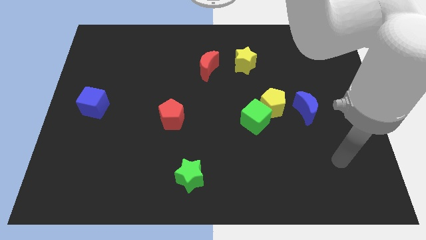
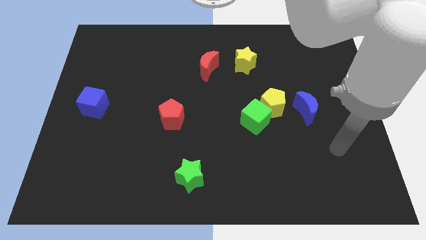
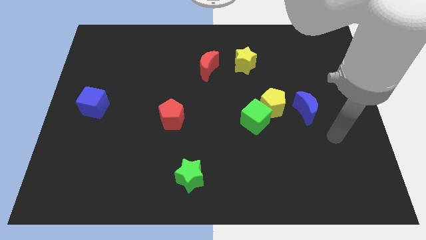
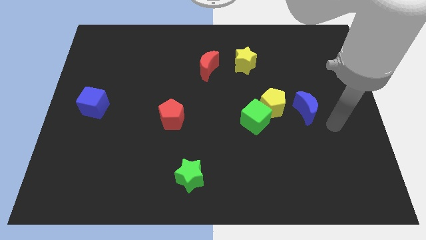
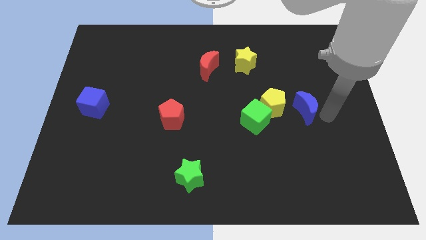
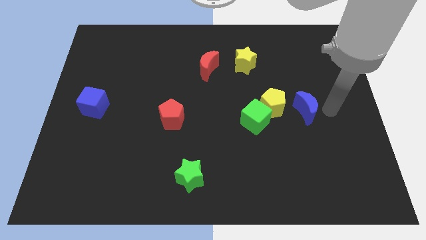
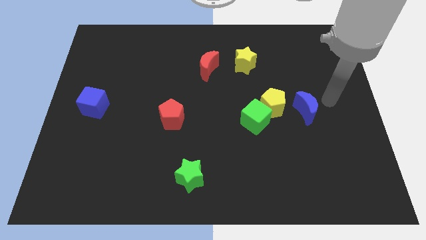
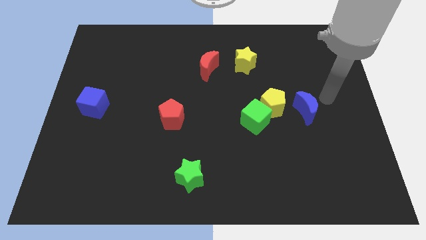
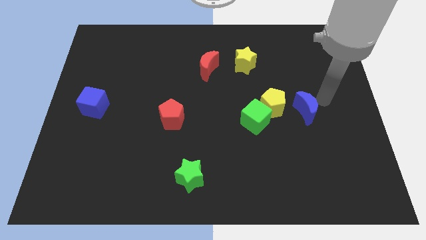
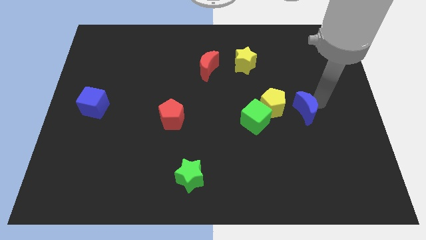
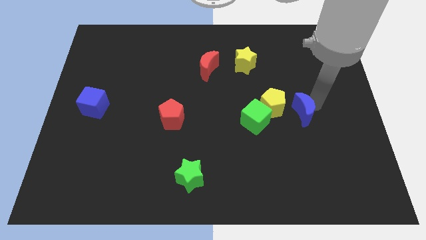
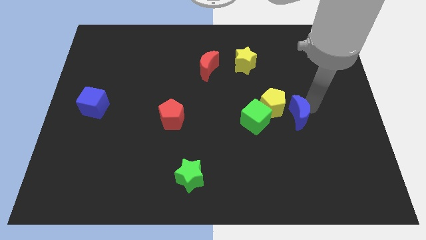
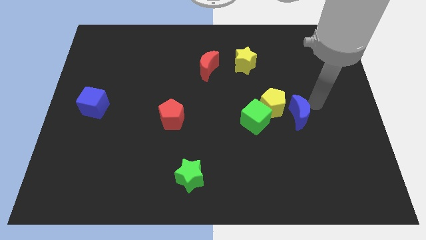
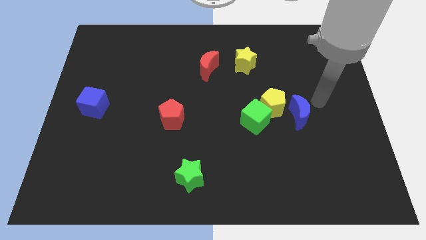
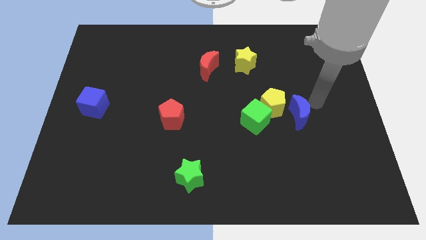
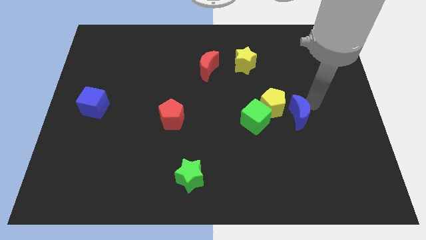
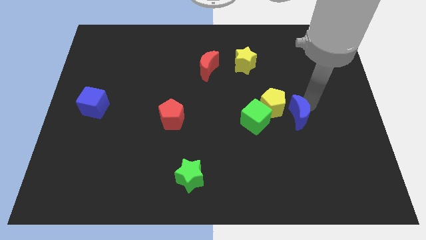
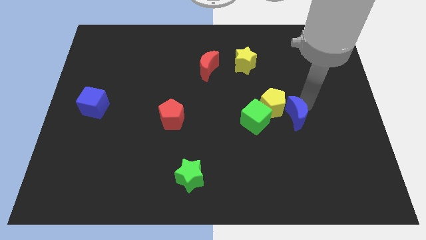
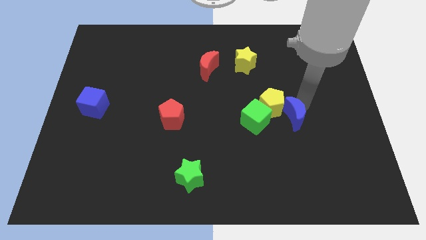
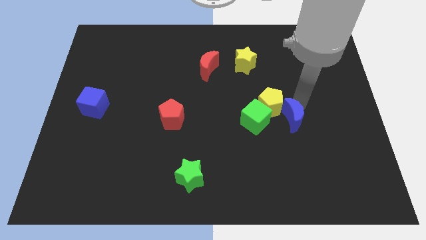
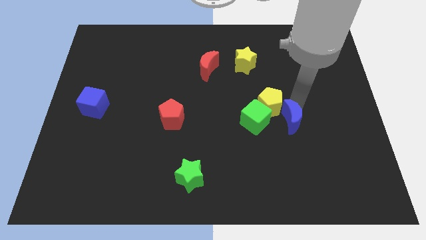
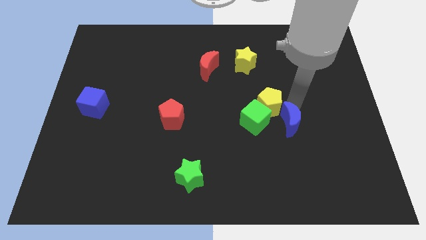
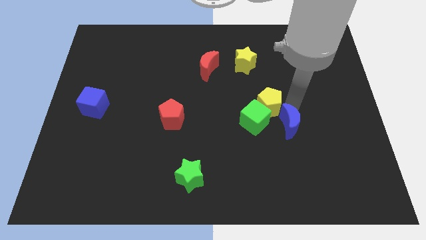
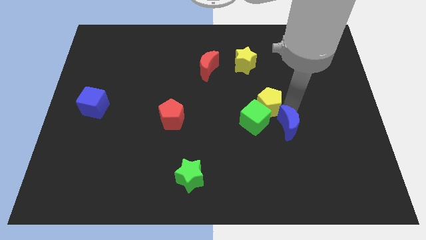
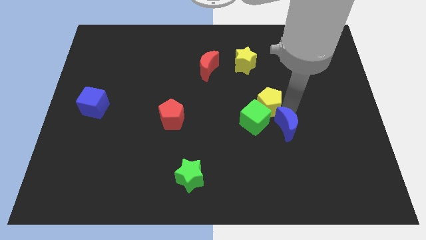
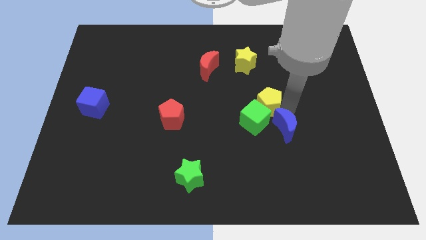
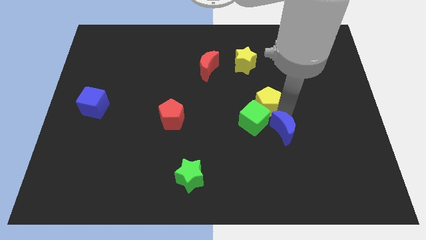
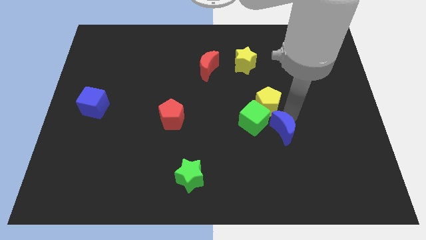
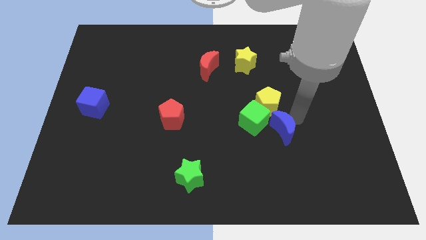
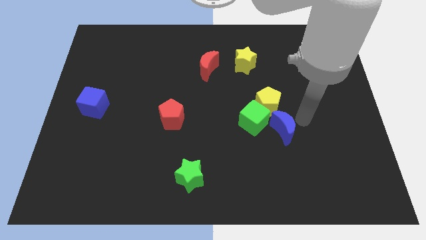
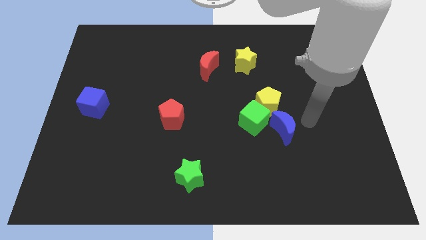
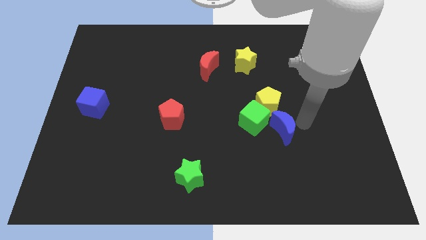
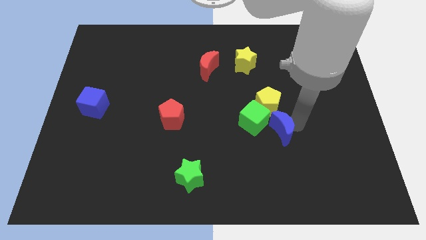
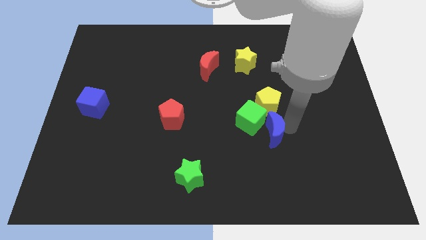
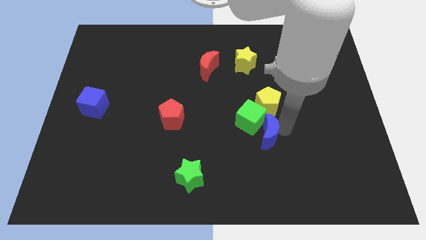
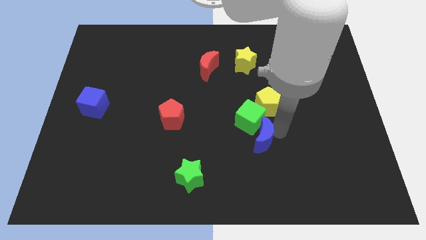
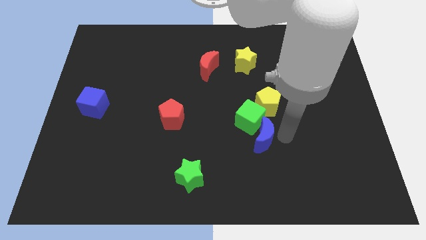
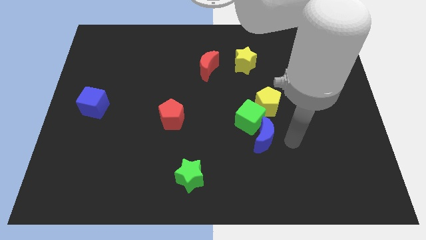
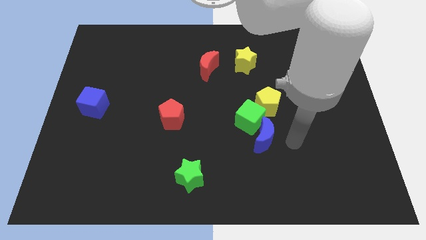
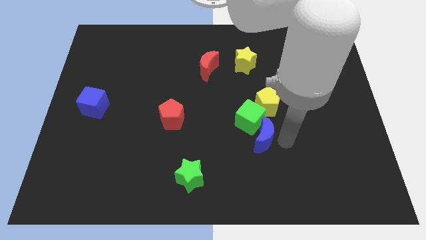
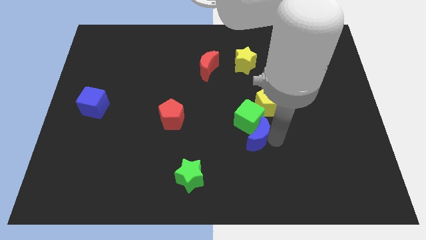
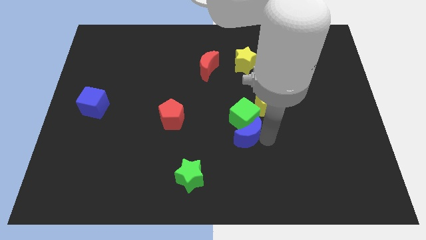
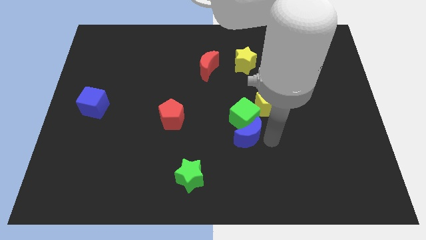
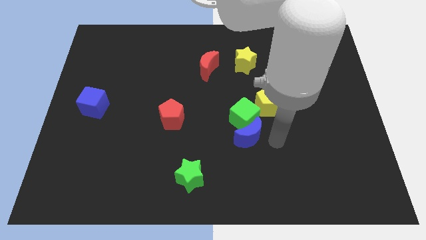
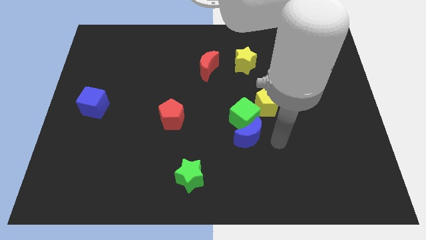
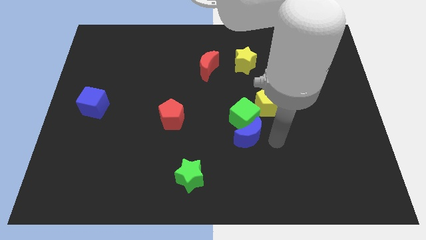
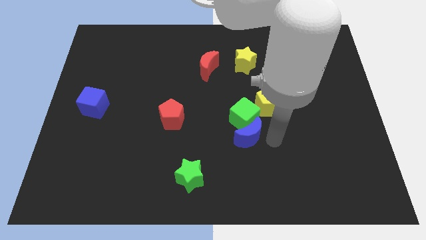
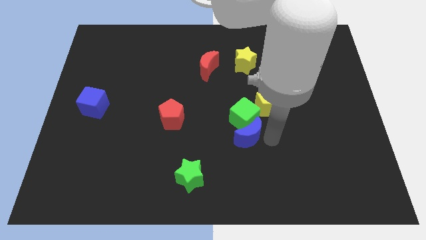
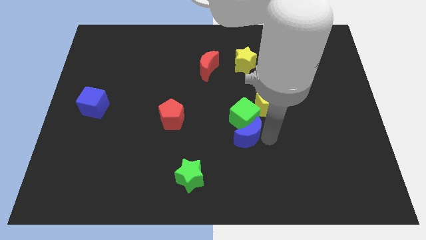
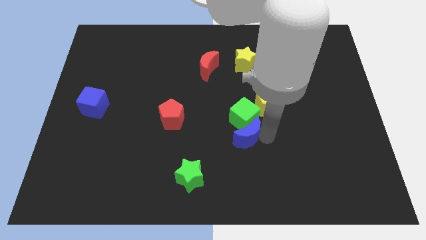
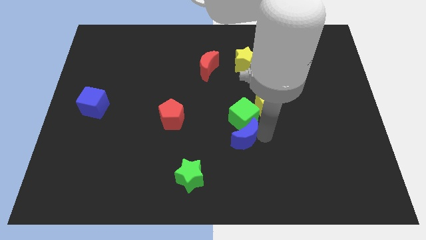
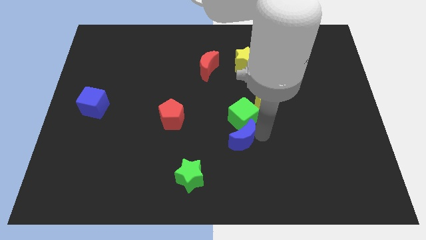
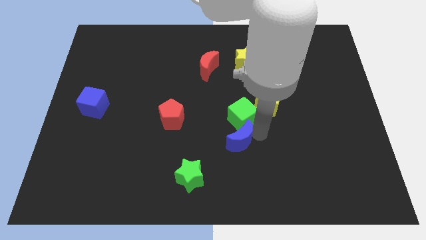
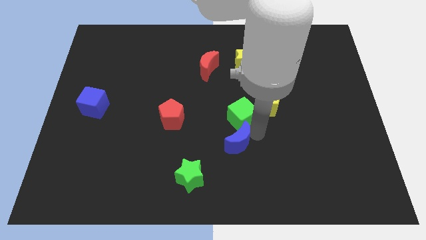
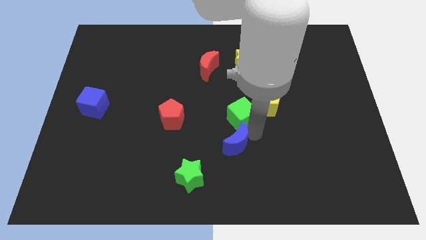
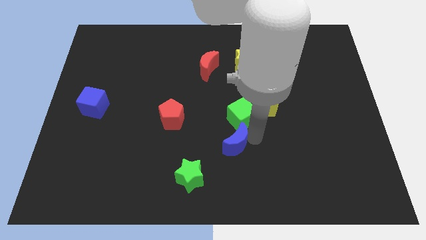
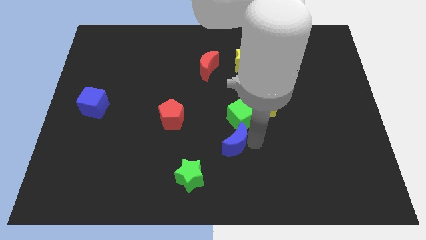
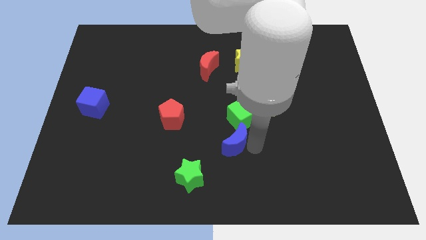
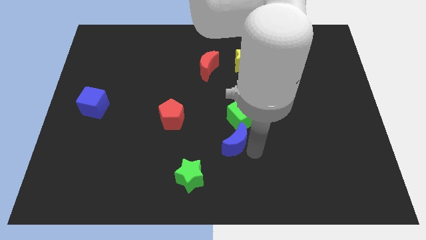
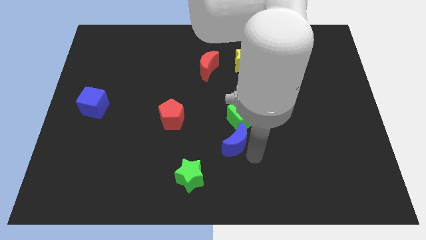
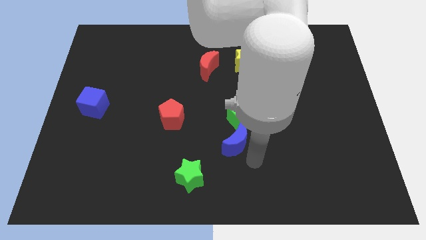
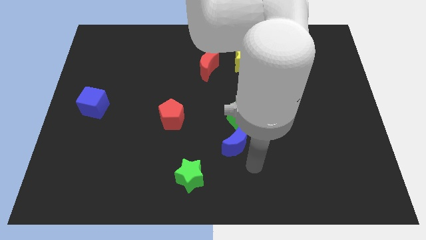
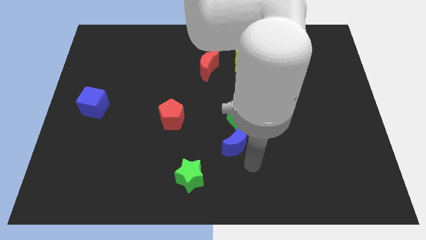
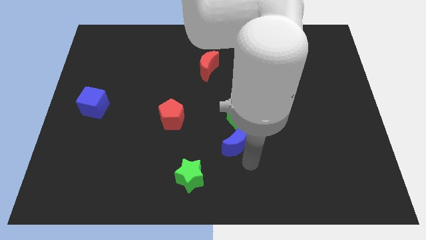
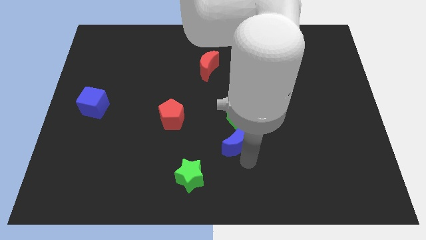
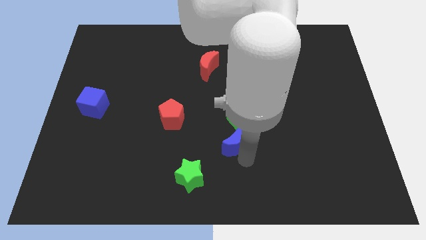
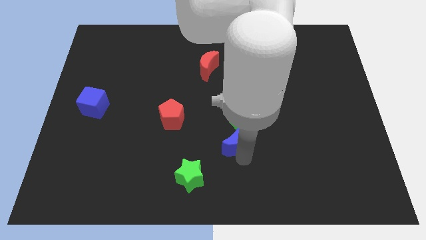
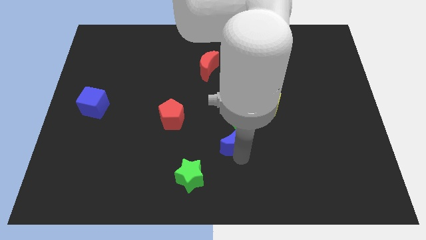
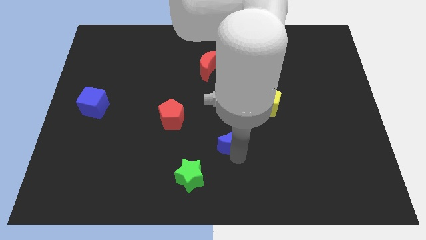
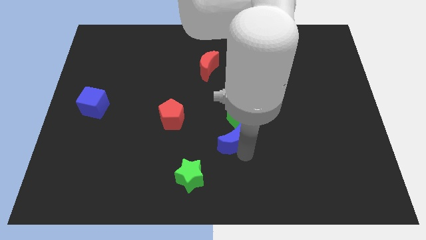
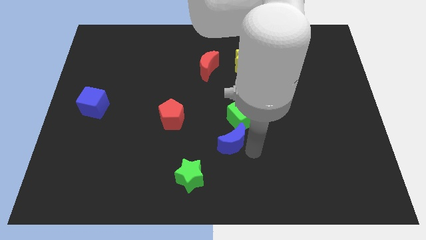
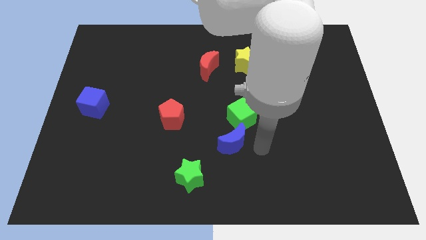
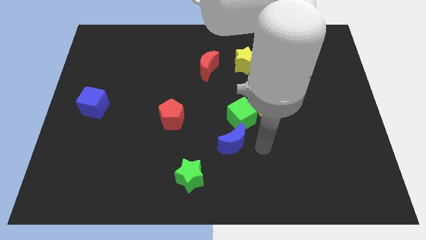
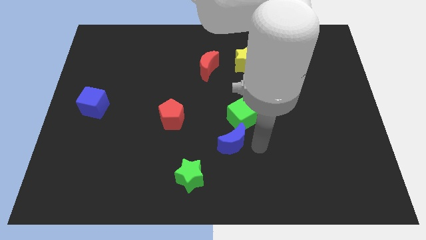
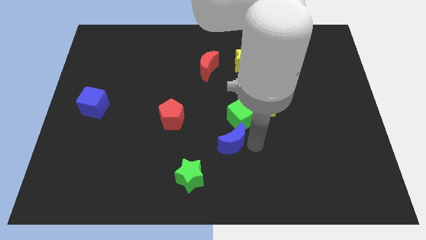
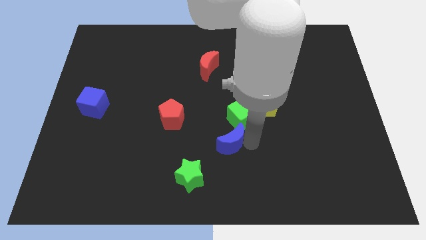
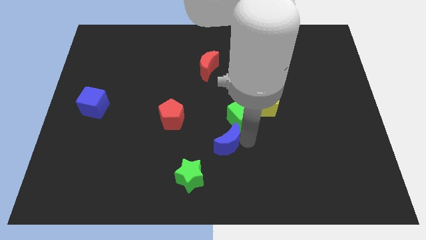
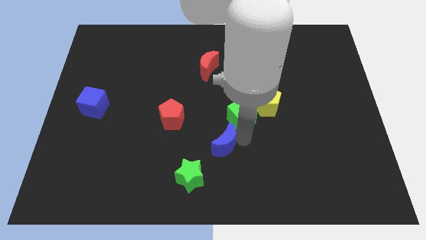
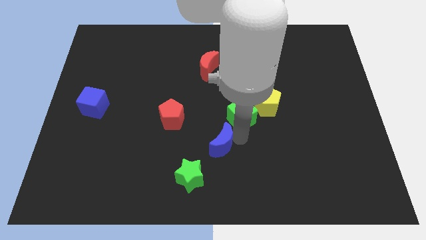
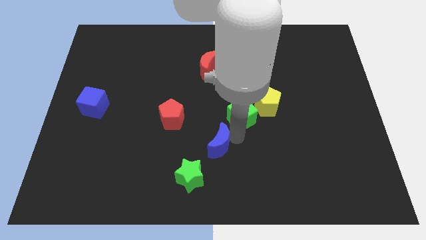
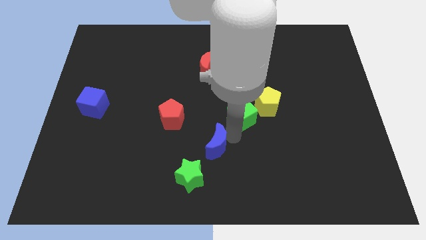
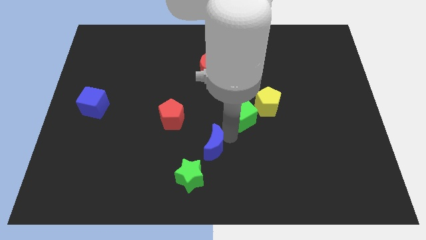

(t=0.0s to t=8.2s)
put the blue moon diagonally down and to the right of the red pentagon
